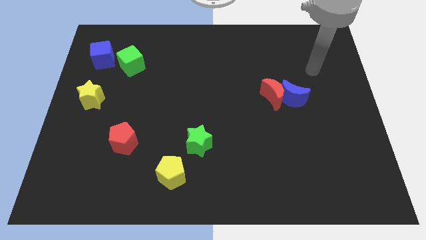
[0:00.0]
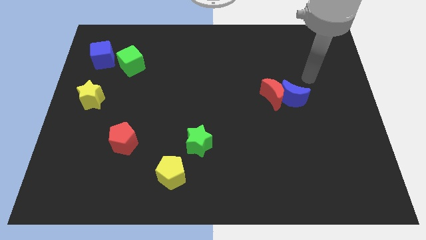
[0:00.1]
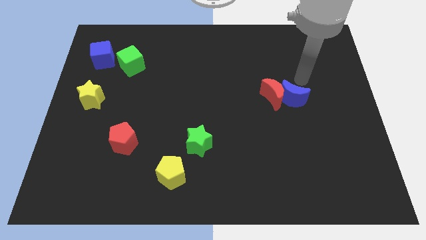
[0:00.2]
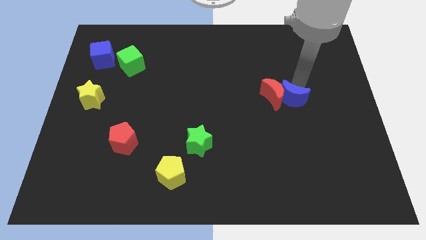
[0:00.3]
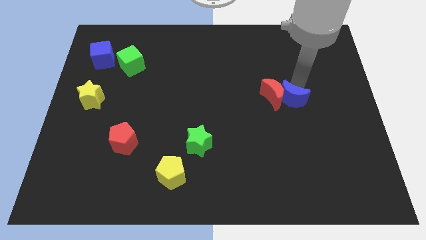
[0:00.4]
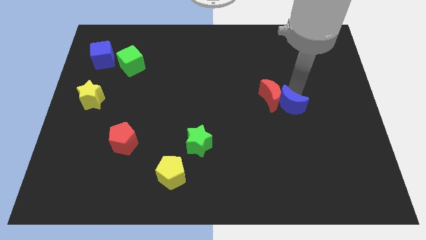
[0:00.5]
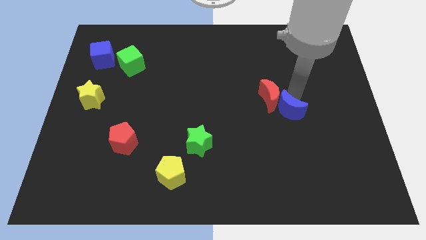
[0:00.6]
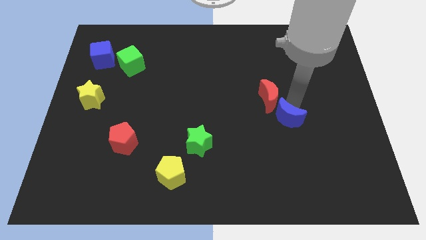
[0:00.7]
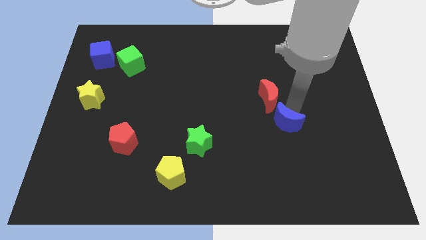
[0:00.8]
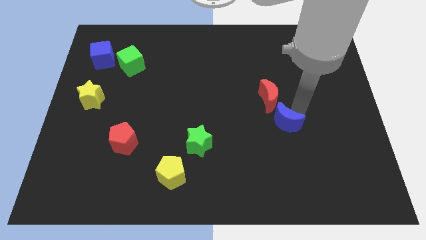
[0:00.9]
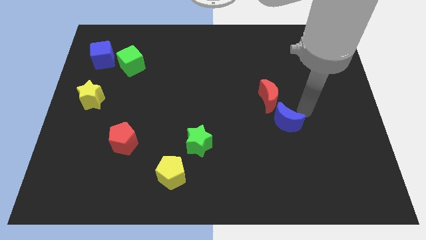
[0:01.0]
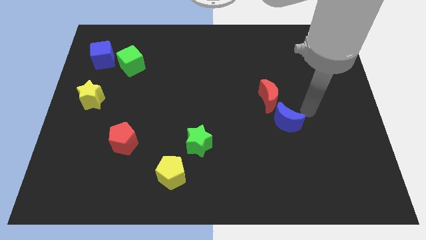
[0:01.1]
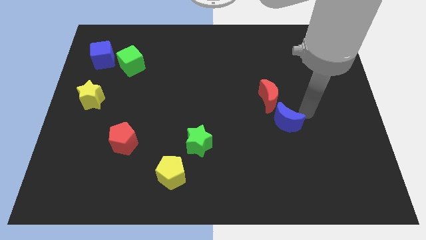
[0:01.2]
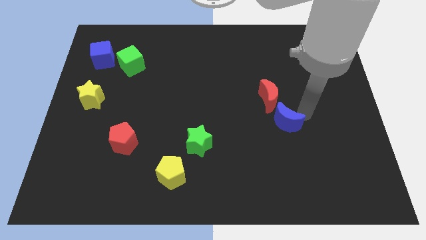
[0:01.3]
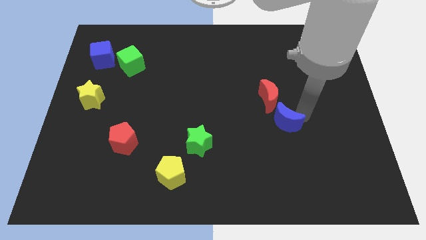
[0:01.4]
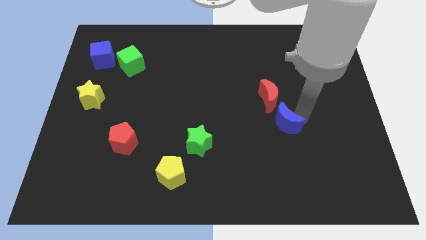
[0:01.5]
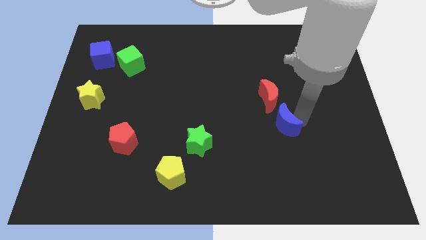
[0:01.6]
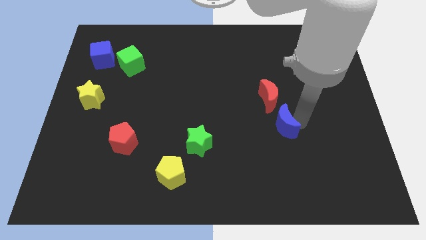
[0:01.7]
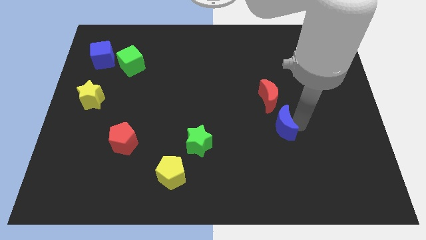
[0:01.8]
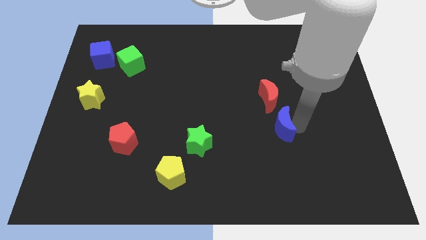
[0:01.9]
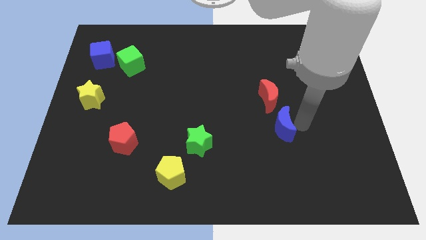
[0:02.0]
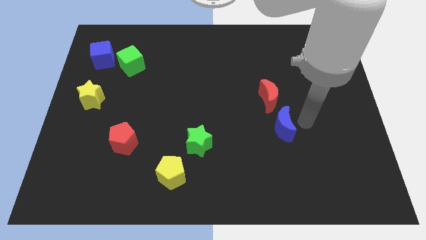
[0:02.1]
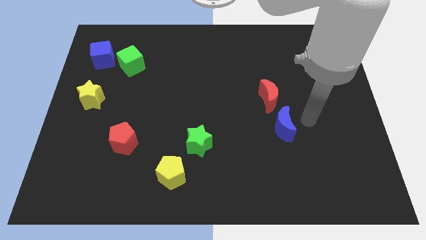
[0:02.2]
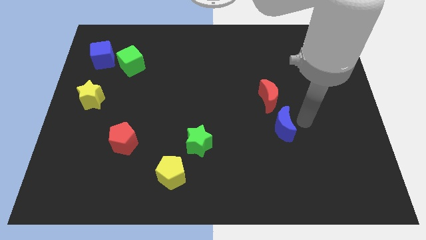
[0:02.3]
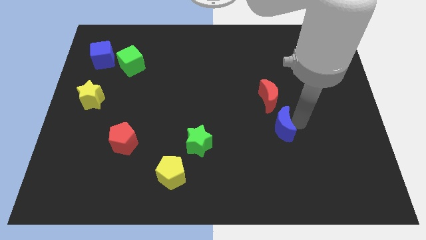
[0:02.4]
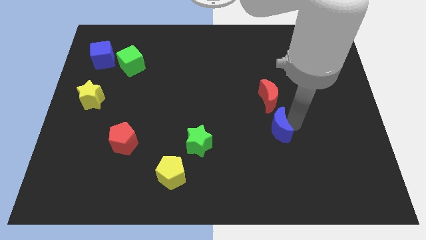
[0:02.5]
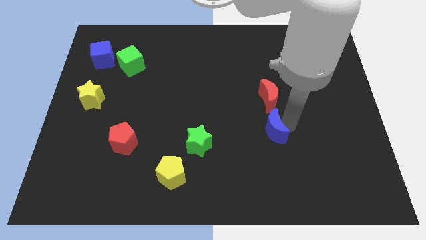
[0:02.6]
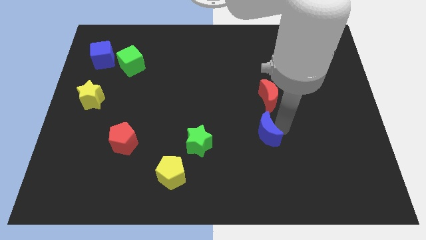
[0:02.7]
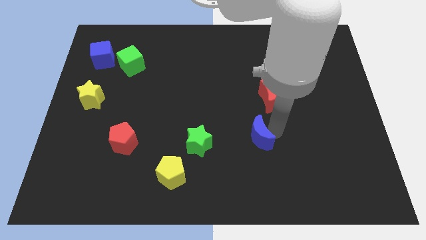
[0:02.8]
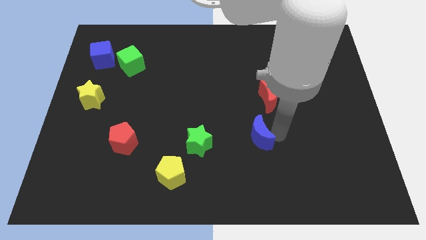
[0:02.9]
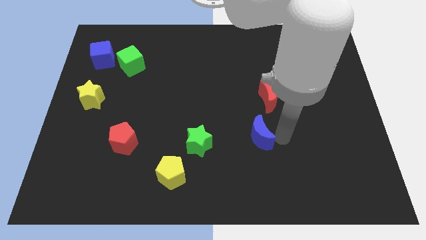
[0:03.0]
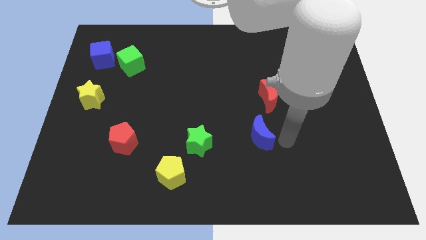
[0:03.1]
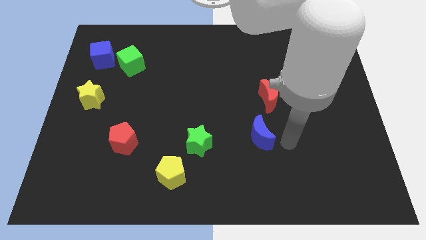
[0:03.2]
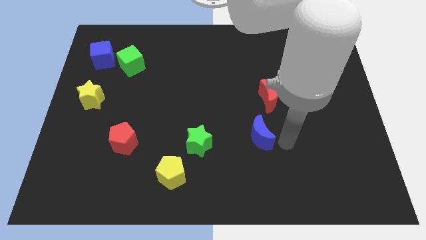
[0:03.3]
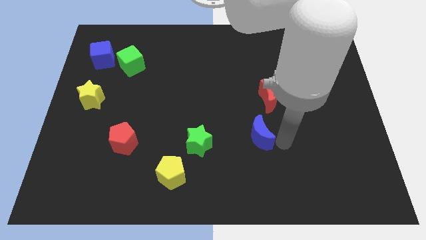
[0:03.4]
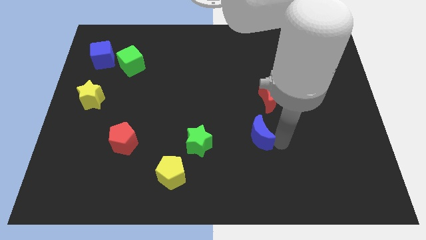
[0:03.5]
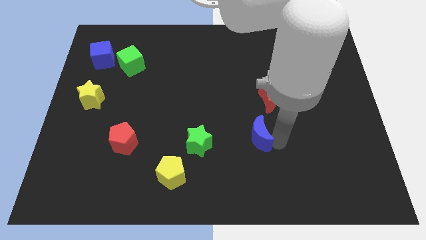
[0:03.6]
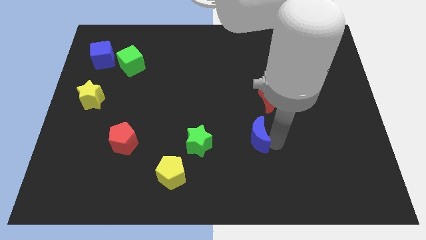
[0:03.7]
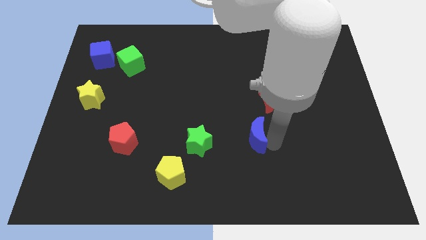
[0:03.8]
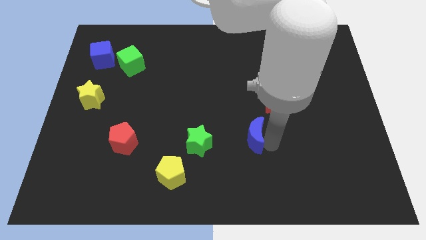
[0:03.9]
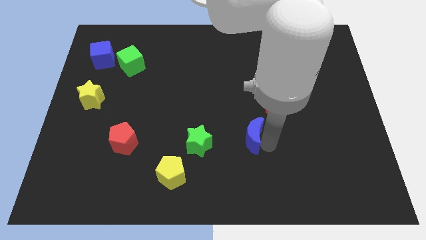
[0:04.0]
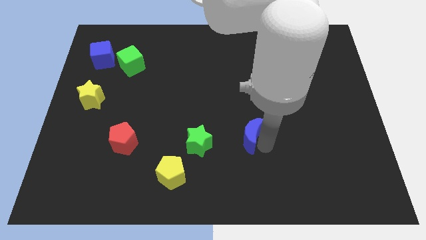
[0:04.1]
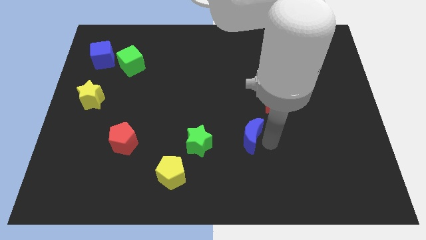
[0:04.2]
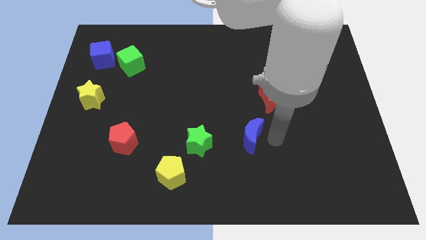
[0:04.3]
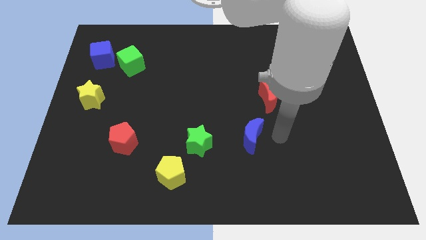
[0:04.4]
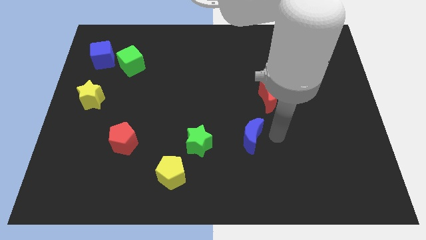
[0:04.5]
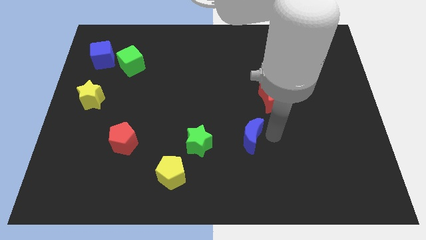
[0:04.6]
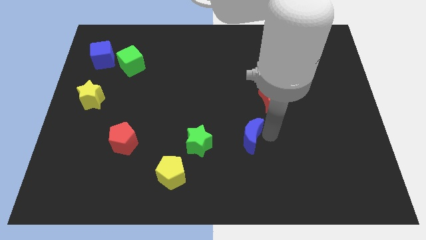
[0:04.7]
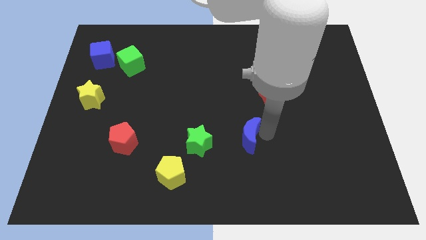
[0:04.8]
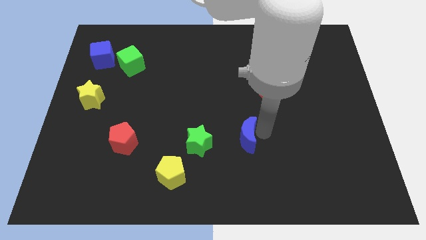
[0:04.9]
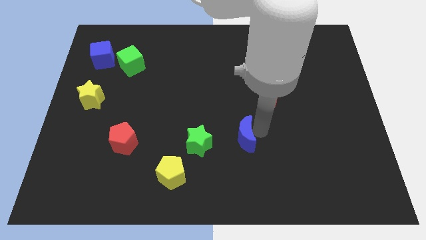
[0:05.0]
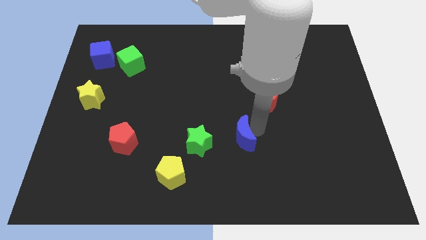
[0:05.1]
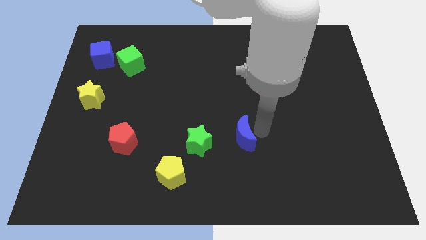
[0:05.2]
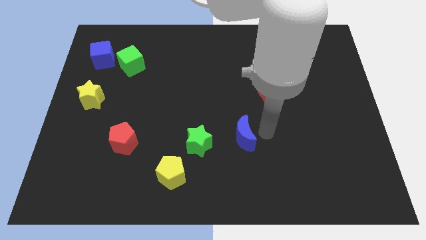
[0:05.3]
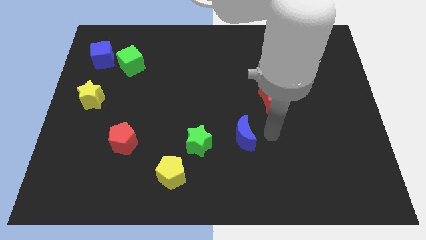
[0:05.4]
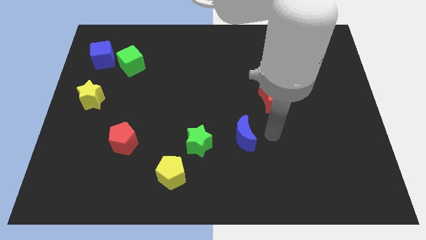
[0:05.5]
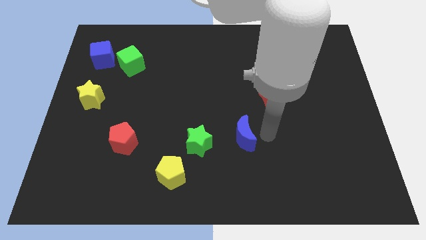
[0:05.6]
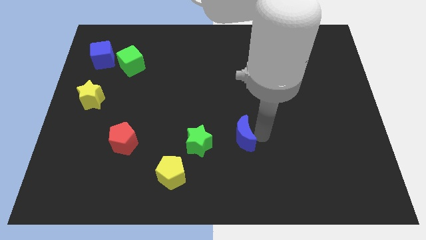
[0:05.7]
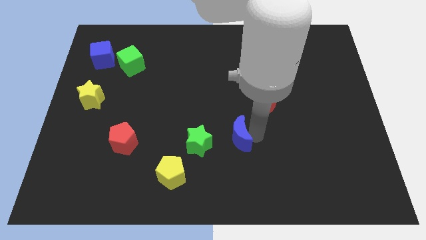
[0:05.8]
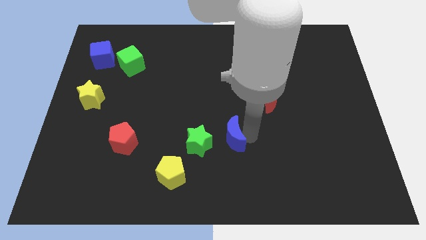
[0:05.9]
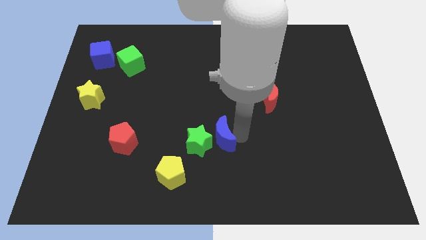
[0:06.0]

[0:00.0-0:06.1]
slide the blue moon towards the green star
